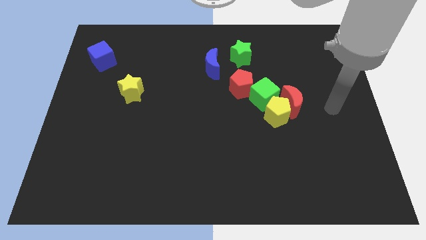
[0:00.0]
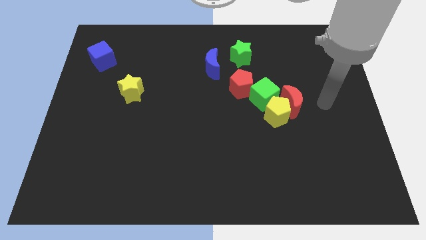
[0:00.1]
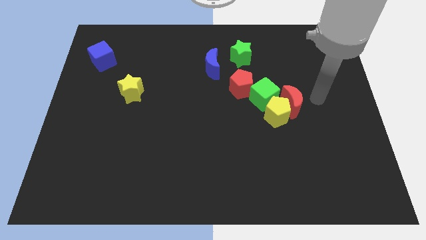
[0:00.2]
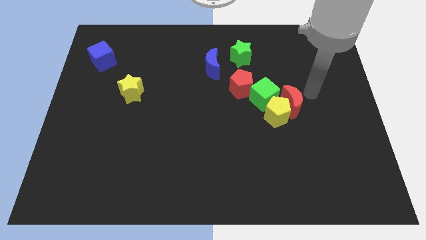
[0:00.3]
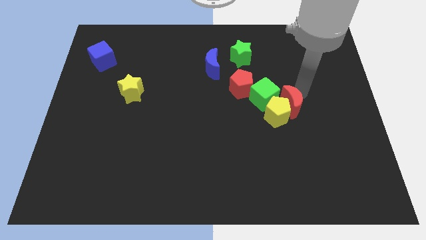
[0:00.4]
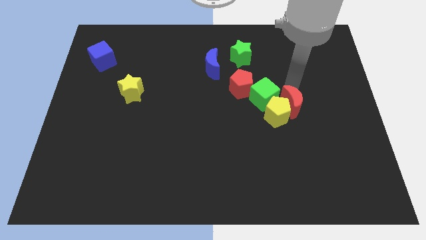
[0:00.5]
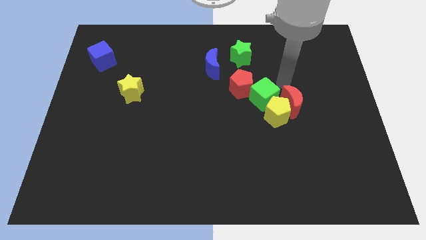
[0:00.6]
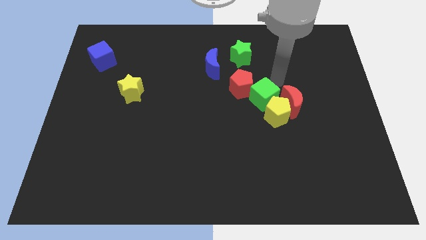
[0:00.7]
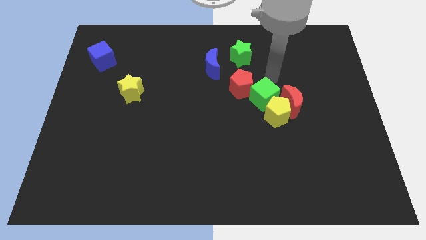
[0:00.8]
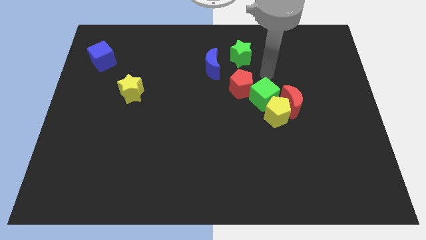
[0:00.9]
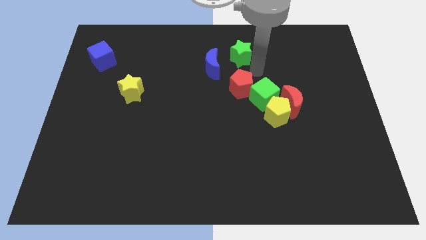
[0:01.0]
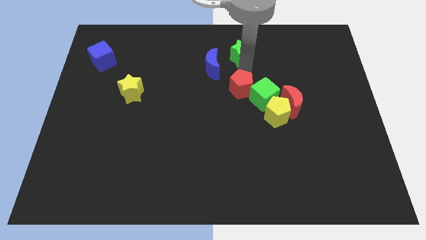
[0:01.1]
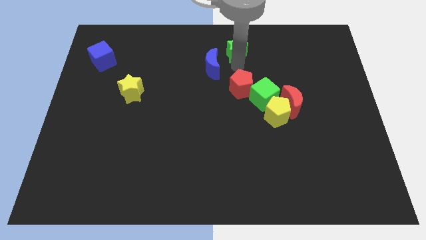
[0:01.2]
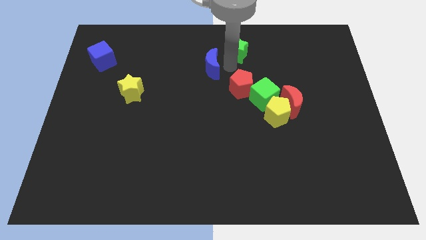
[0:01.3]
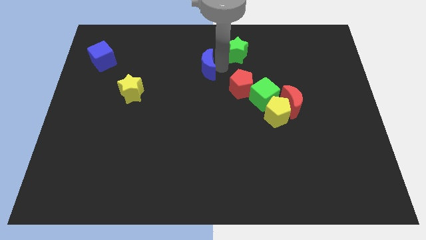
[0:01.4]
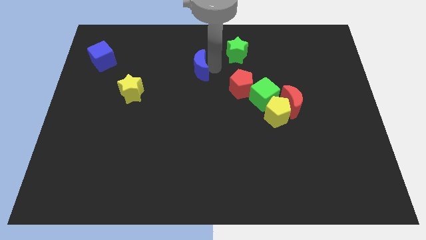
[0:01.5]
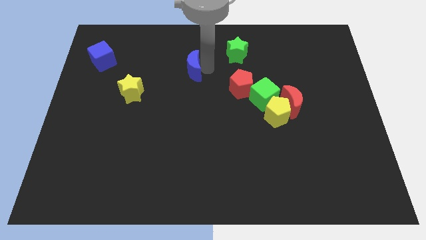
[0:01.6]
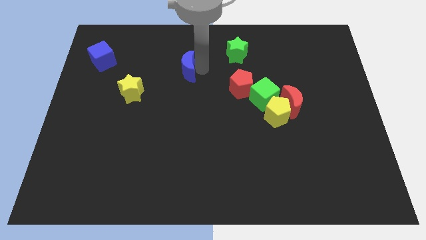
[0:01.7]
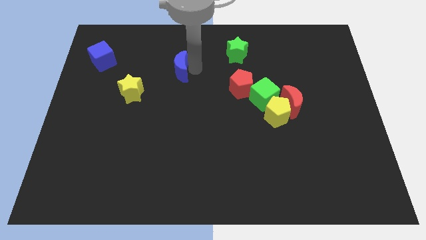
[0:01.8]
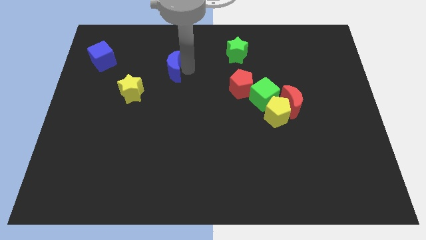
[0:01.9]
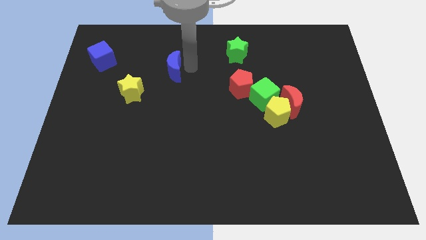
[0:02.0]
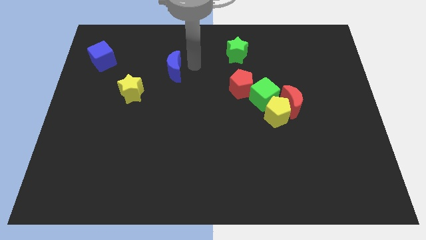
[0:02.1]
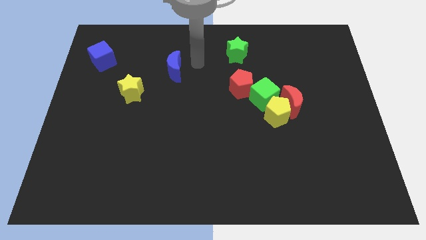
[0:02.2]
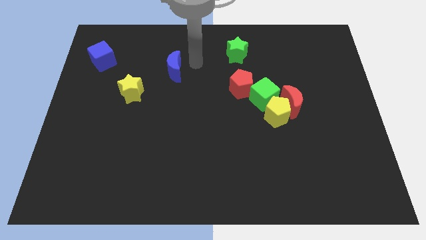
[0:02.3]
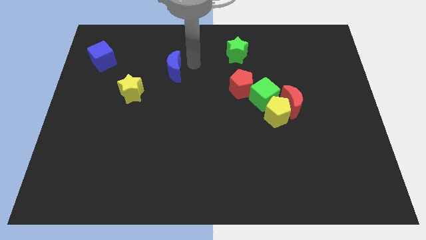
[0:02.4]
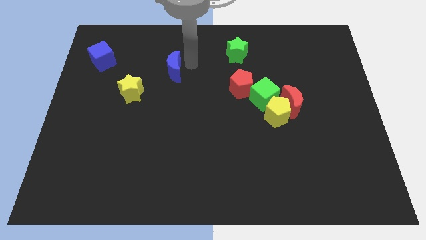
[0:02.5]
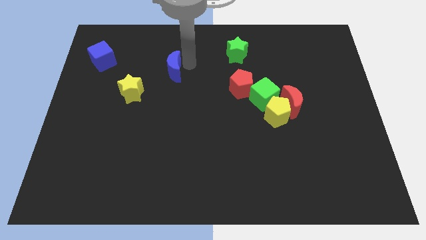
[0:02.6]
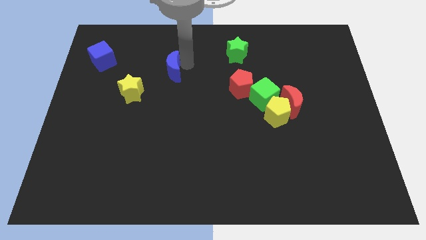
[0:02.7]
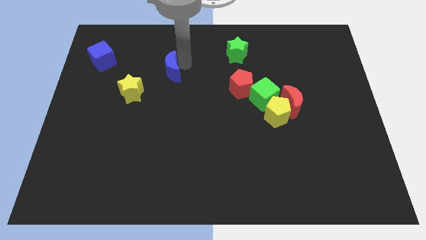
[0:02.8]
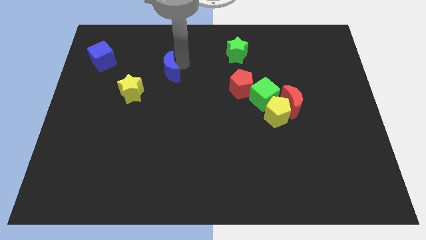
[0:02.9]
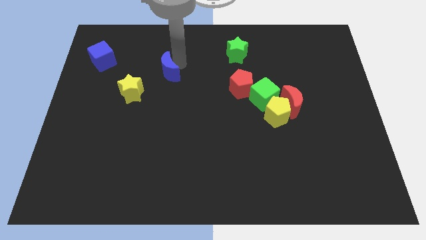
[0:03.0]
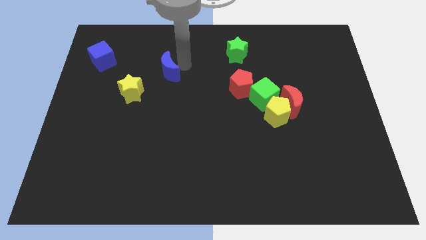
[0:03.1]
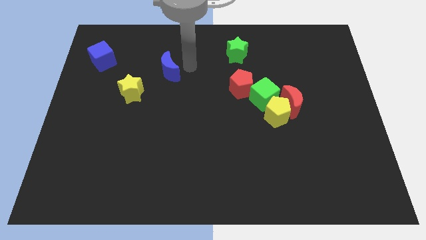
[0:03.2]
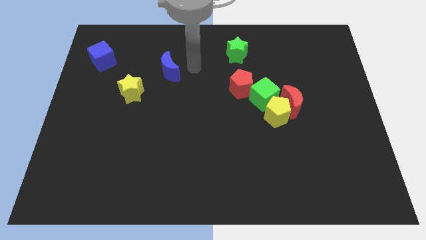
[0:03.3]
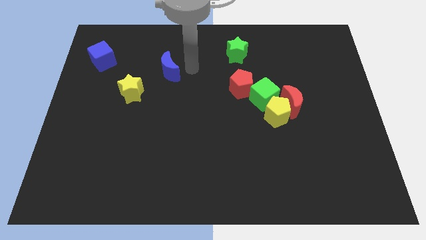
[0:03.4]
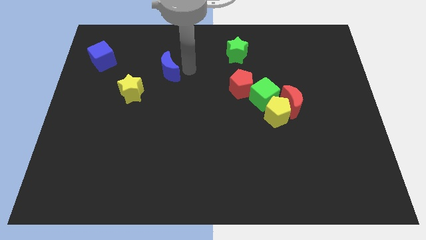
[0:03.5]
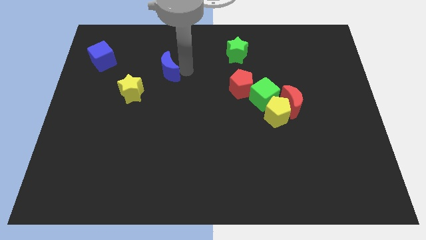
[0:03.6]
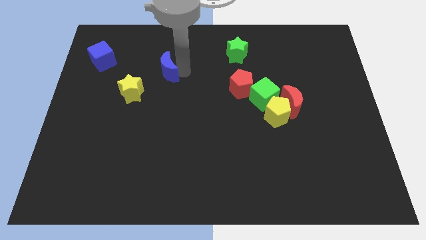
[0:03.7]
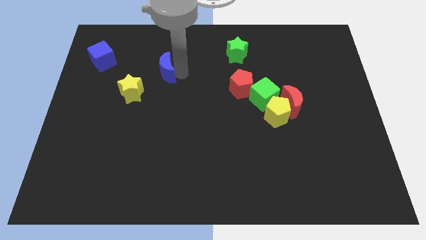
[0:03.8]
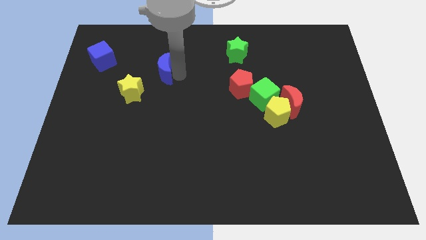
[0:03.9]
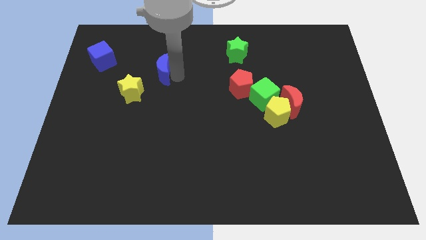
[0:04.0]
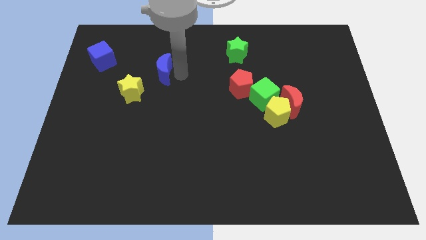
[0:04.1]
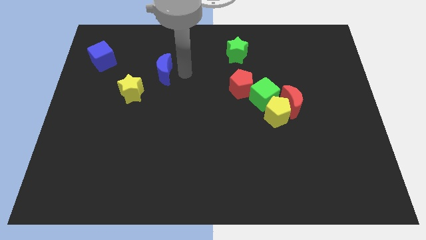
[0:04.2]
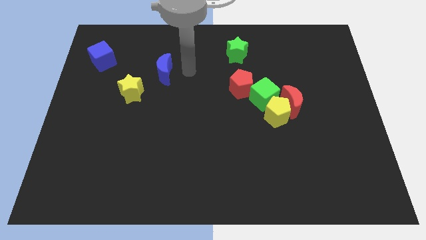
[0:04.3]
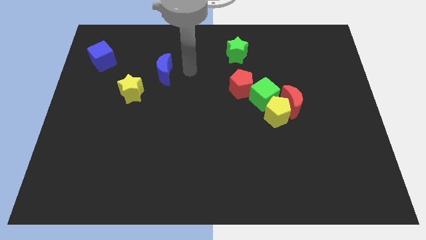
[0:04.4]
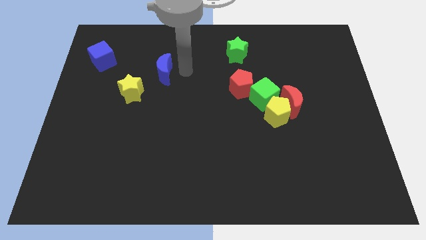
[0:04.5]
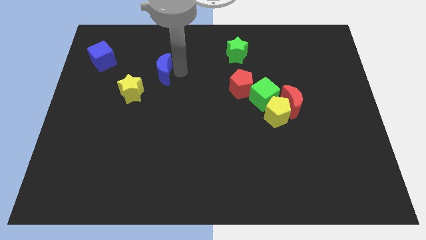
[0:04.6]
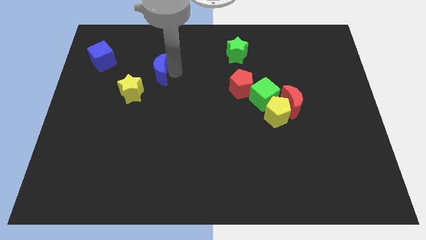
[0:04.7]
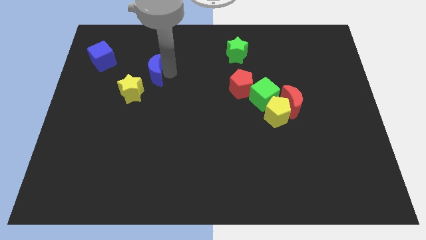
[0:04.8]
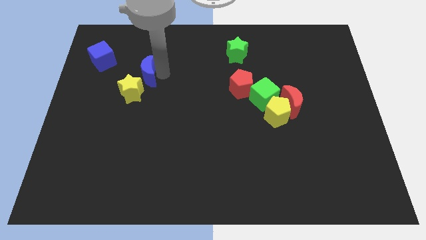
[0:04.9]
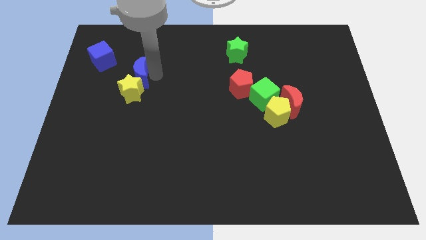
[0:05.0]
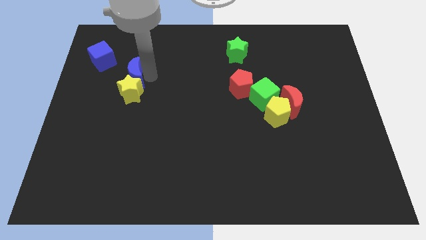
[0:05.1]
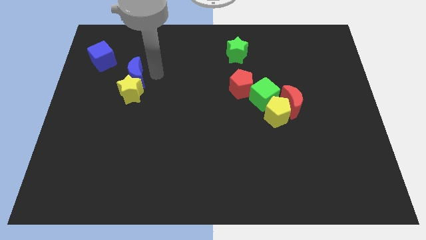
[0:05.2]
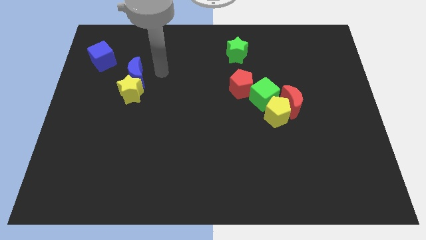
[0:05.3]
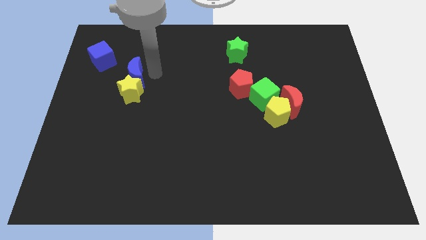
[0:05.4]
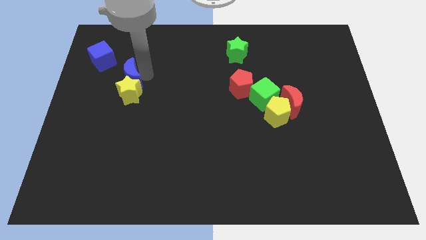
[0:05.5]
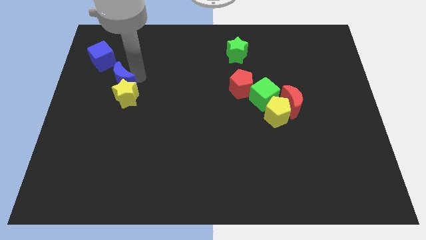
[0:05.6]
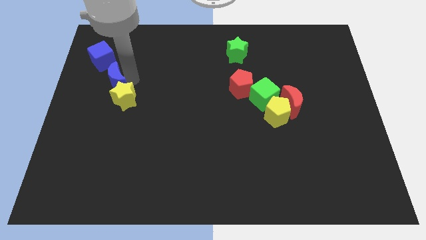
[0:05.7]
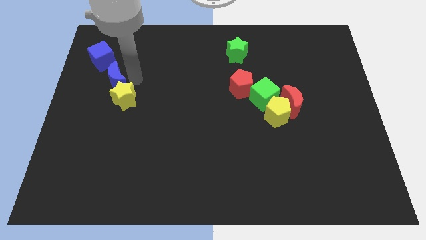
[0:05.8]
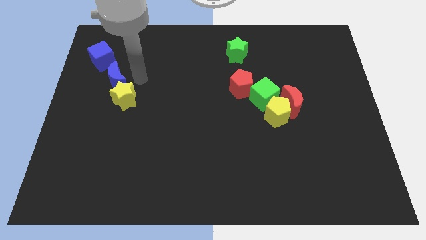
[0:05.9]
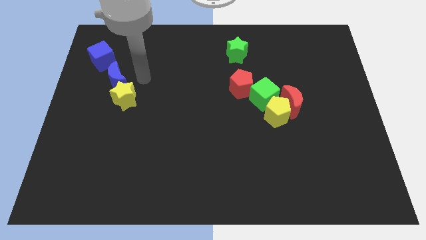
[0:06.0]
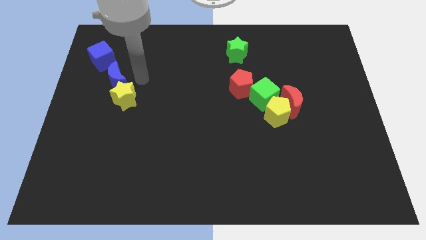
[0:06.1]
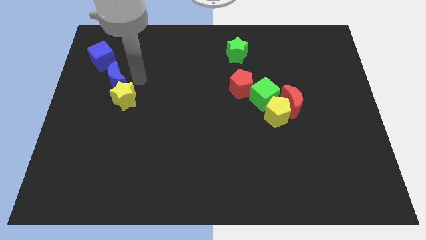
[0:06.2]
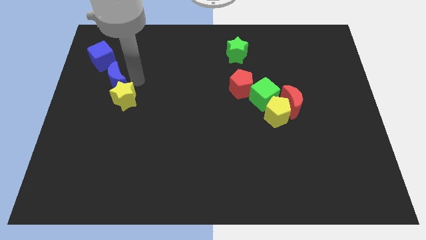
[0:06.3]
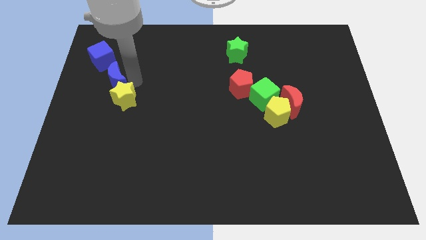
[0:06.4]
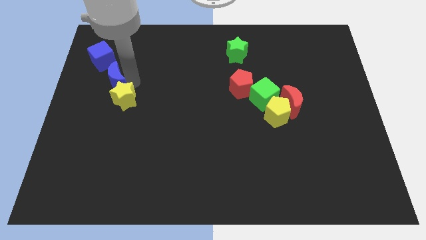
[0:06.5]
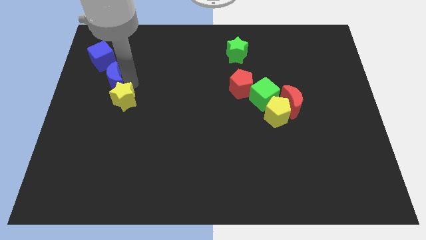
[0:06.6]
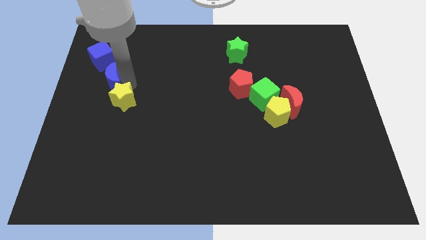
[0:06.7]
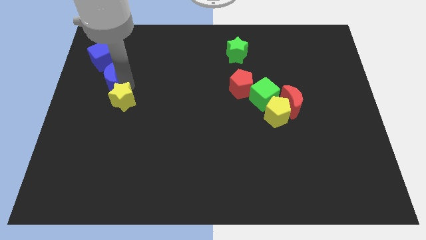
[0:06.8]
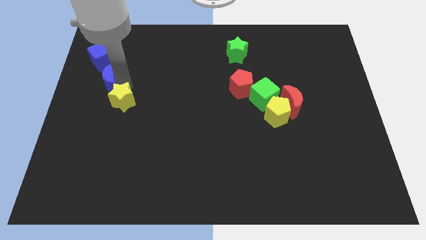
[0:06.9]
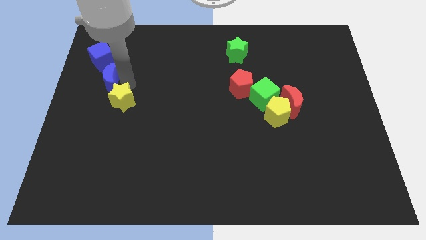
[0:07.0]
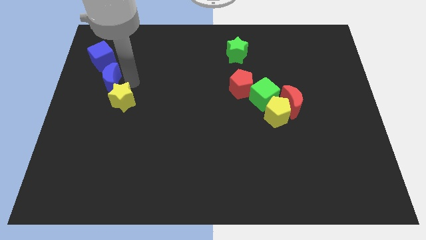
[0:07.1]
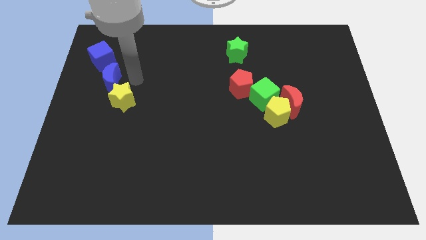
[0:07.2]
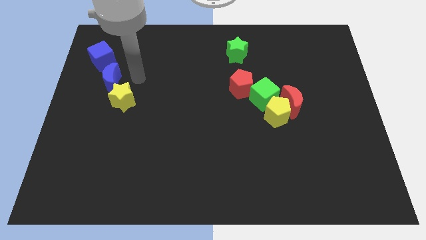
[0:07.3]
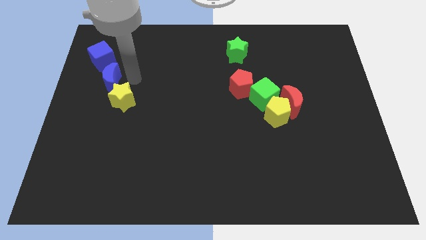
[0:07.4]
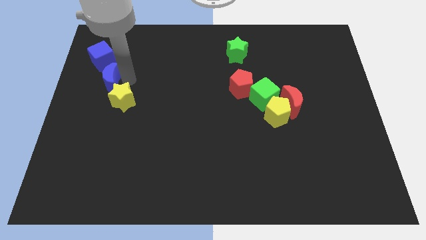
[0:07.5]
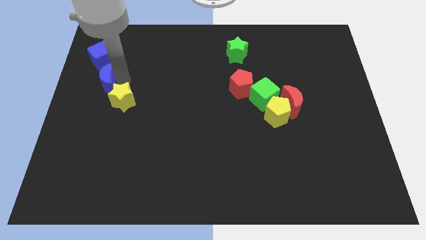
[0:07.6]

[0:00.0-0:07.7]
move the blue moon to the left side
